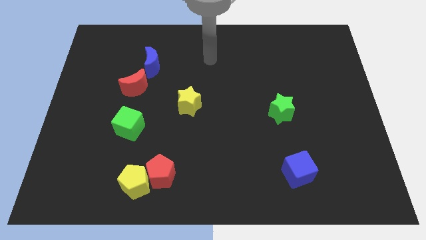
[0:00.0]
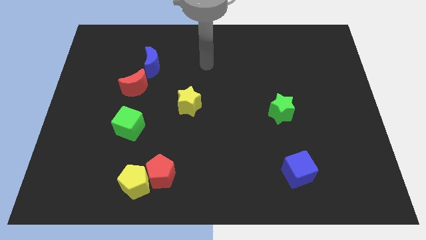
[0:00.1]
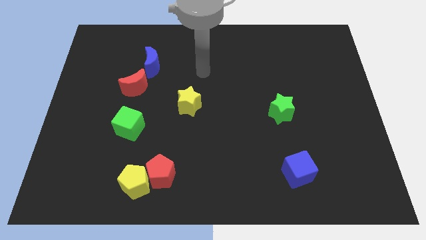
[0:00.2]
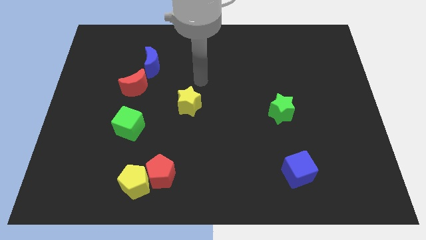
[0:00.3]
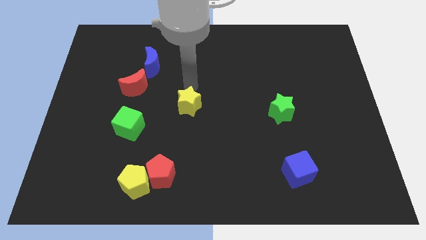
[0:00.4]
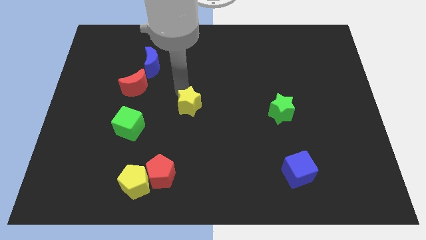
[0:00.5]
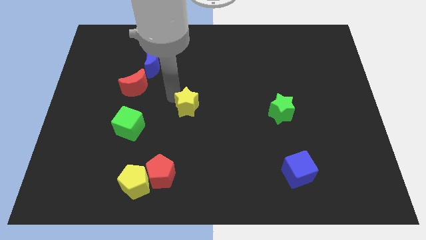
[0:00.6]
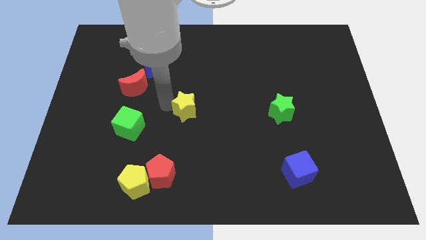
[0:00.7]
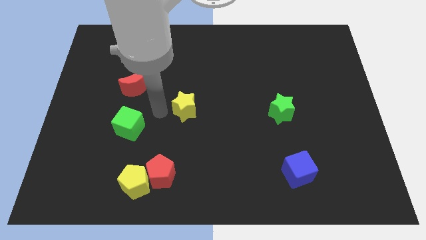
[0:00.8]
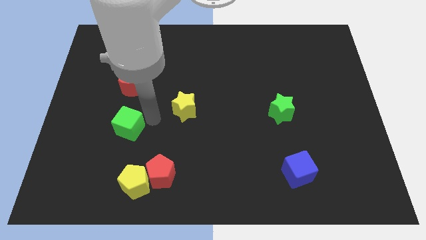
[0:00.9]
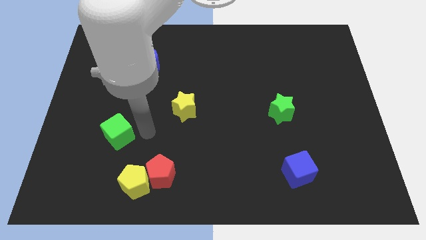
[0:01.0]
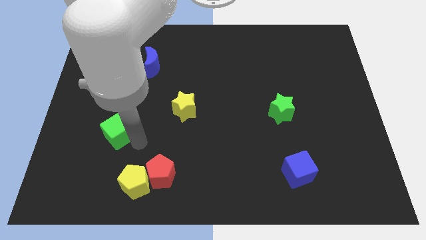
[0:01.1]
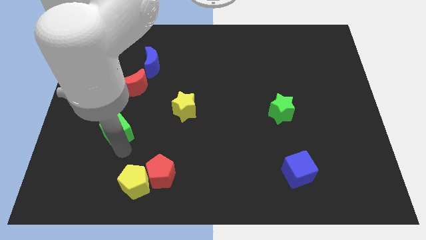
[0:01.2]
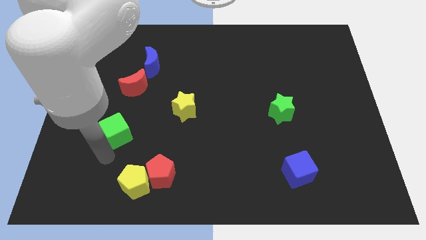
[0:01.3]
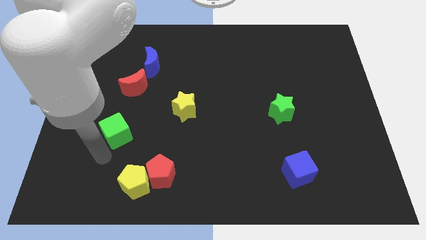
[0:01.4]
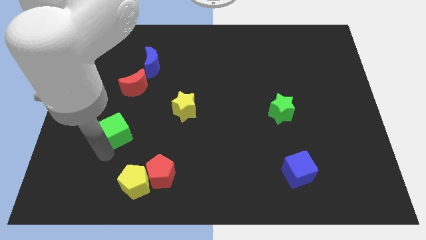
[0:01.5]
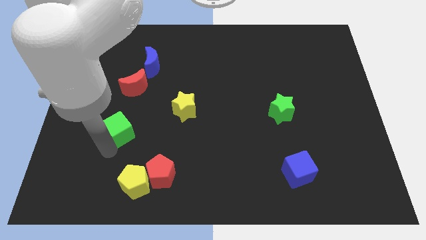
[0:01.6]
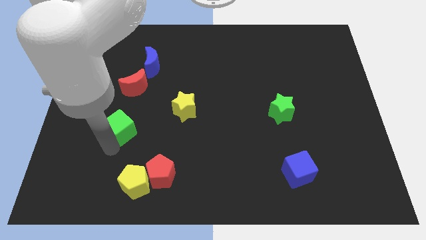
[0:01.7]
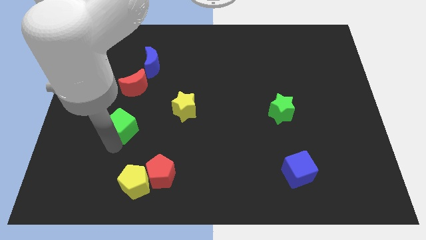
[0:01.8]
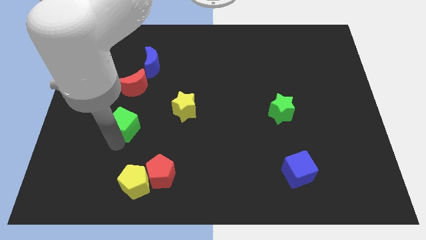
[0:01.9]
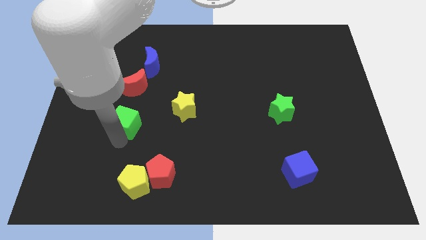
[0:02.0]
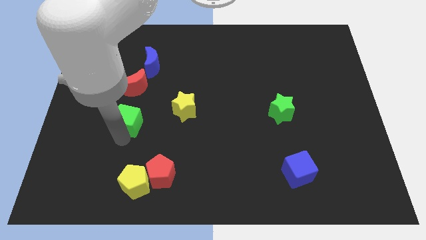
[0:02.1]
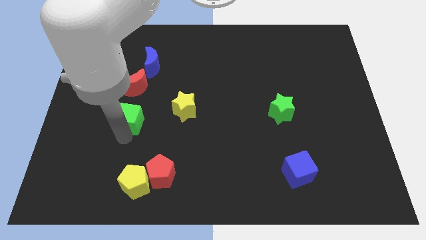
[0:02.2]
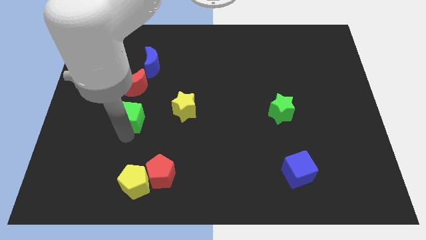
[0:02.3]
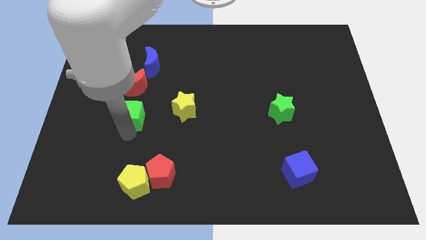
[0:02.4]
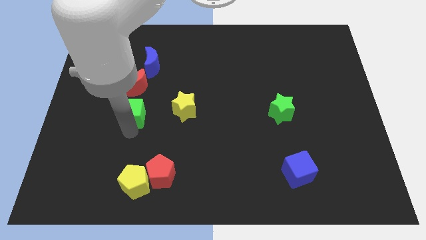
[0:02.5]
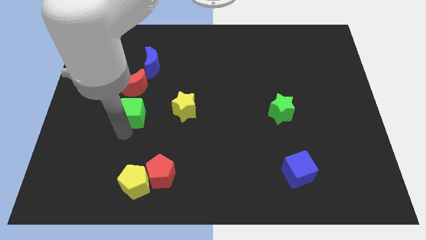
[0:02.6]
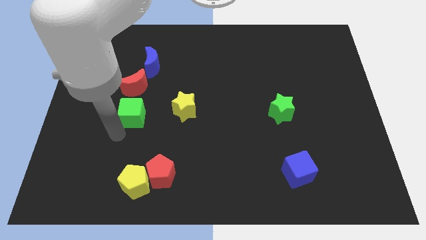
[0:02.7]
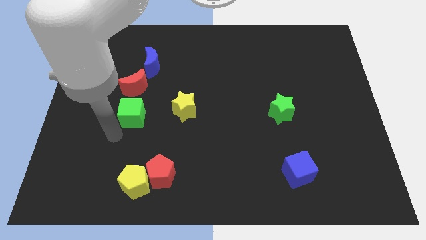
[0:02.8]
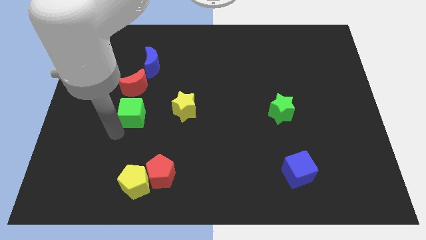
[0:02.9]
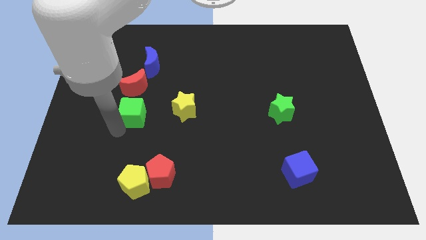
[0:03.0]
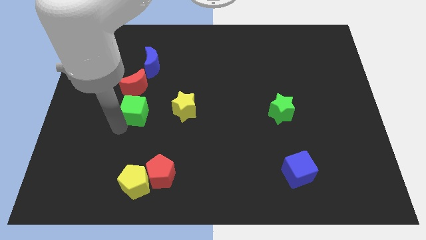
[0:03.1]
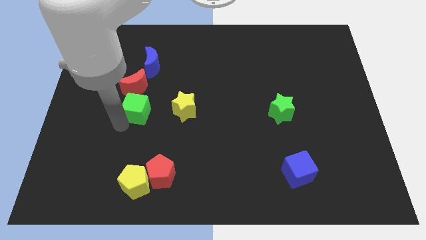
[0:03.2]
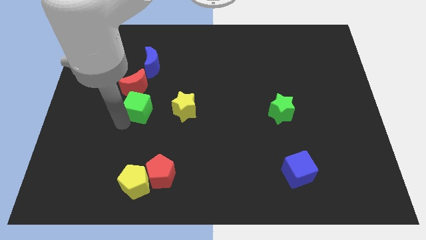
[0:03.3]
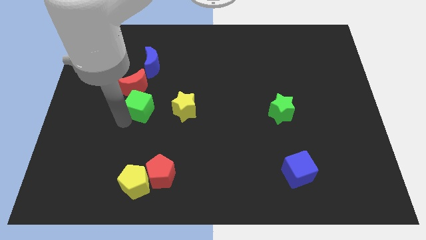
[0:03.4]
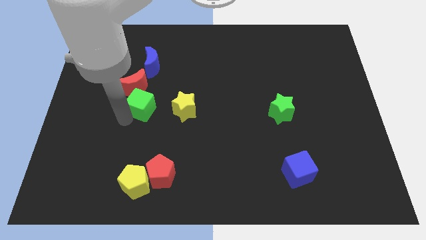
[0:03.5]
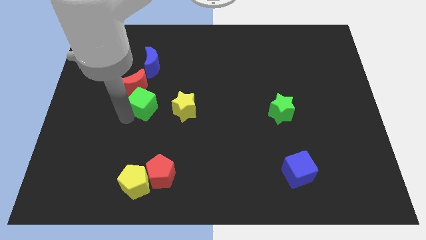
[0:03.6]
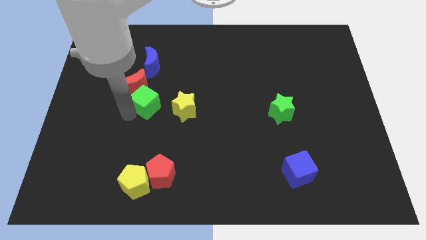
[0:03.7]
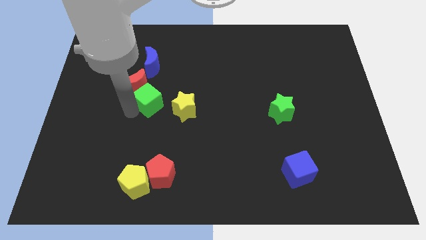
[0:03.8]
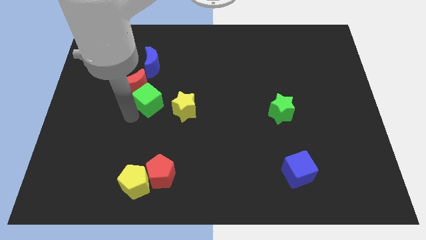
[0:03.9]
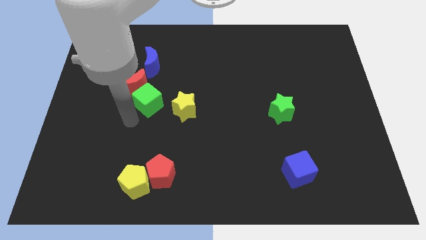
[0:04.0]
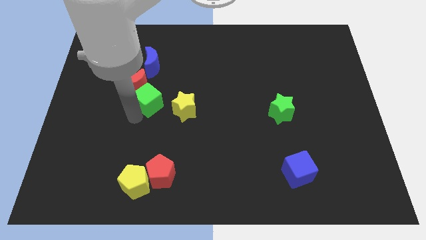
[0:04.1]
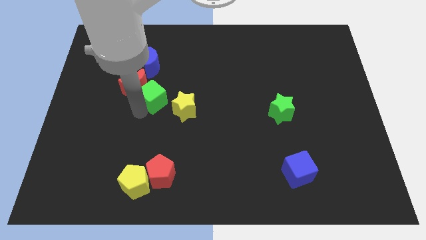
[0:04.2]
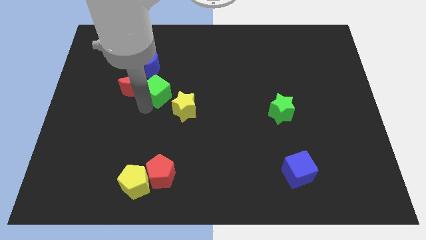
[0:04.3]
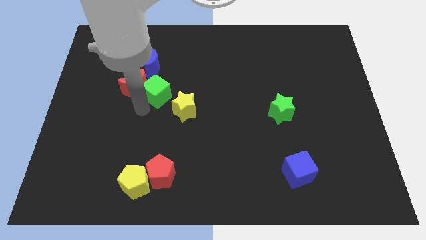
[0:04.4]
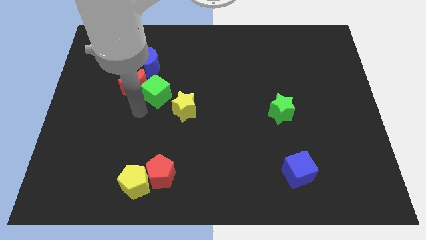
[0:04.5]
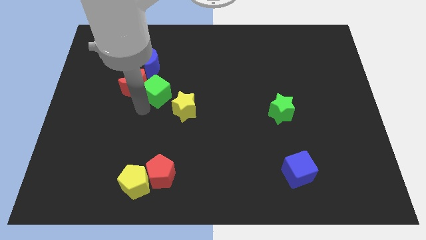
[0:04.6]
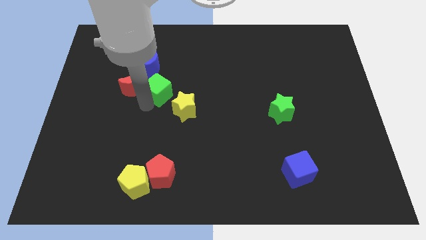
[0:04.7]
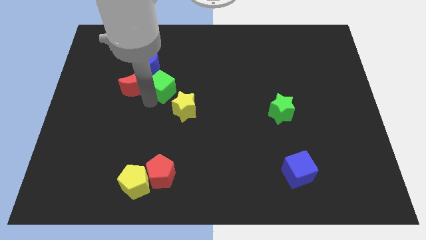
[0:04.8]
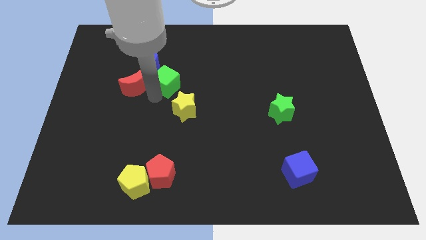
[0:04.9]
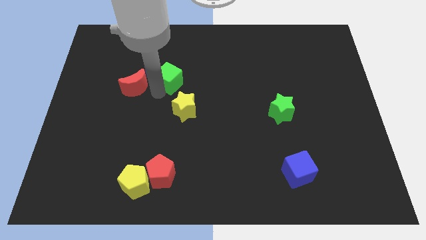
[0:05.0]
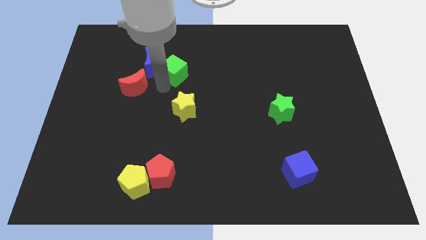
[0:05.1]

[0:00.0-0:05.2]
move the green cube to the right side of the blue moon

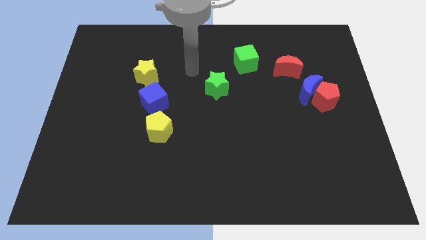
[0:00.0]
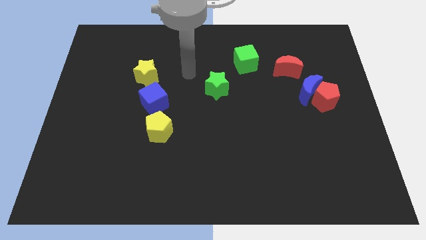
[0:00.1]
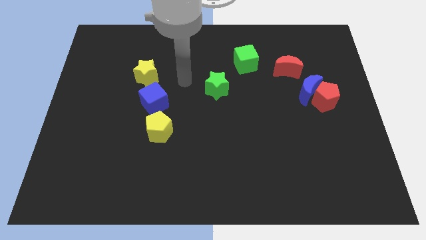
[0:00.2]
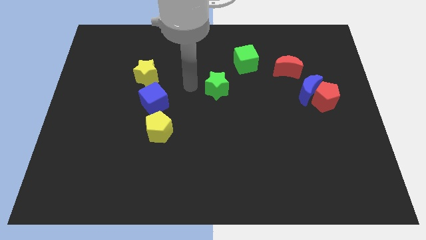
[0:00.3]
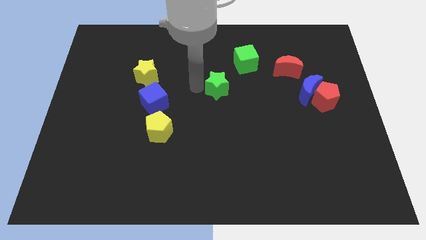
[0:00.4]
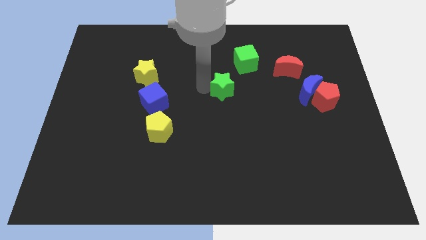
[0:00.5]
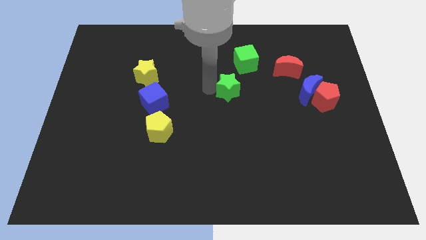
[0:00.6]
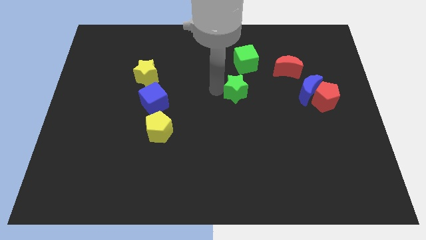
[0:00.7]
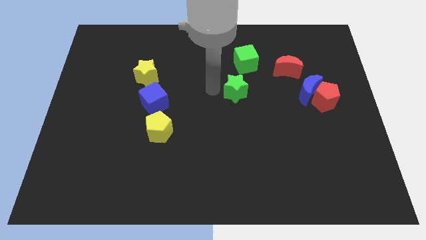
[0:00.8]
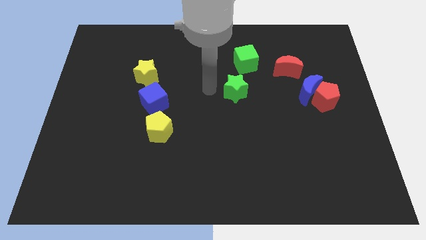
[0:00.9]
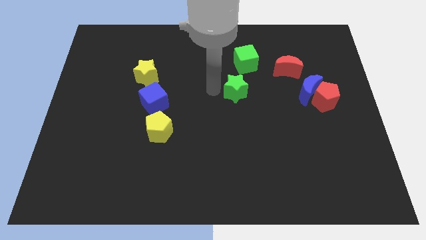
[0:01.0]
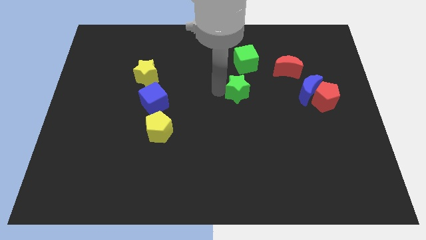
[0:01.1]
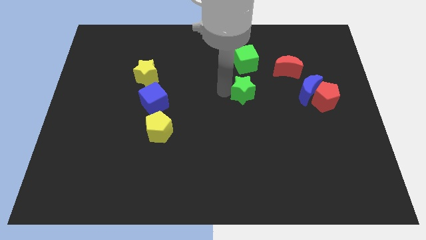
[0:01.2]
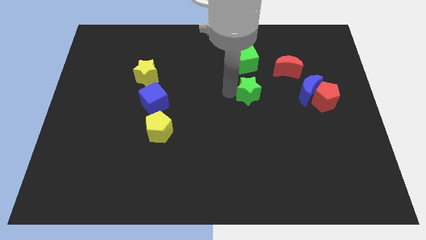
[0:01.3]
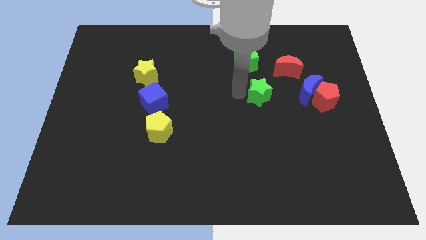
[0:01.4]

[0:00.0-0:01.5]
put the green star to the left side of the red pentagon
